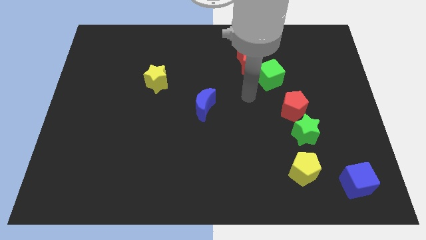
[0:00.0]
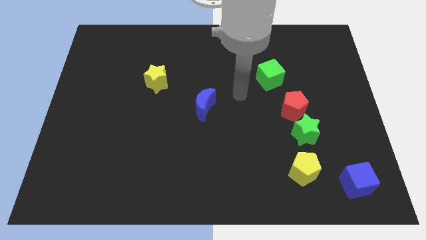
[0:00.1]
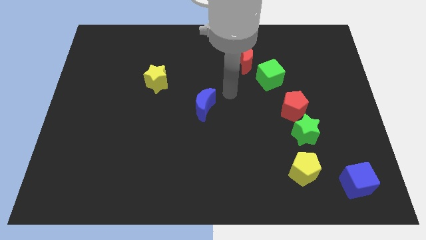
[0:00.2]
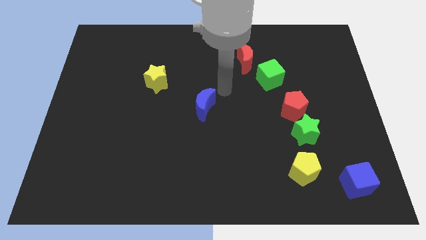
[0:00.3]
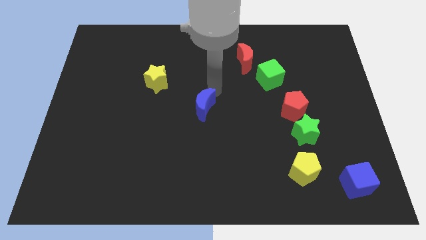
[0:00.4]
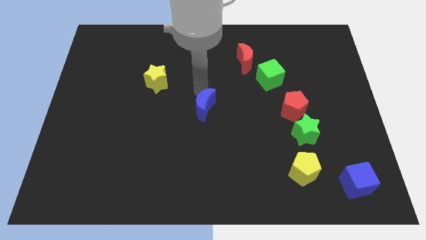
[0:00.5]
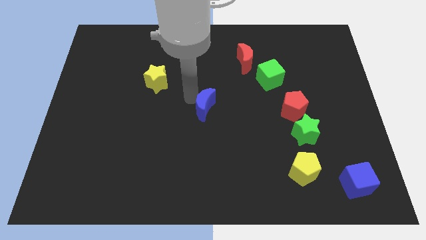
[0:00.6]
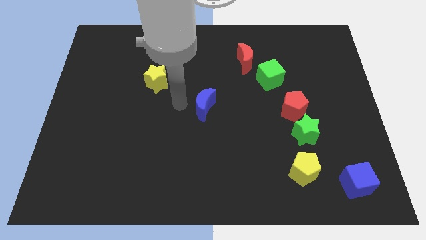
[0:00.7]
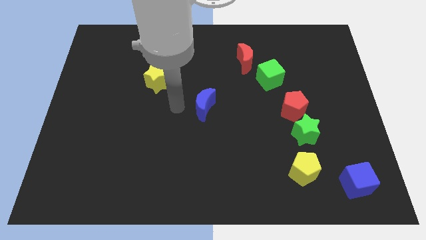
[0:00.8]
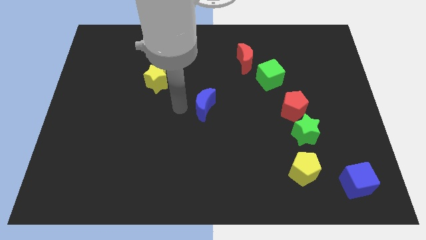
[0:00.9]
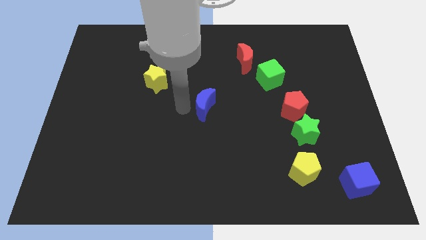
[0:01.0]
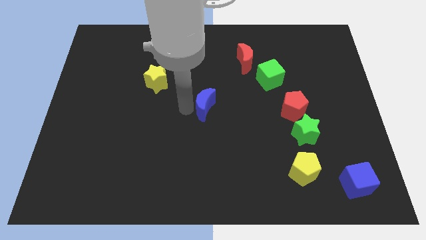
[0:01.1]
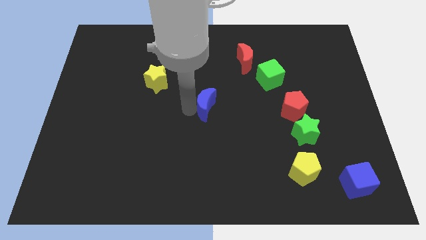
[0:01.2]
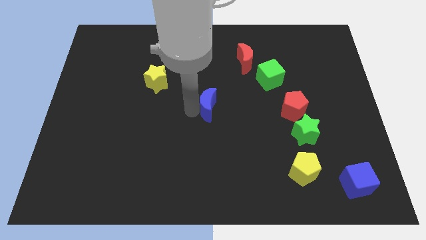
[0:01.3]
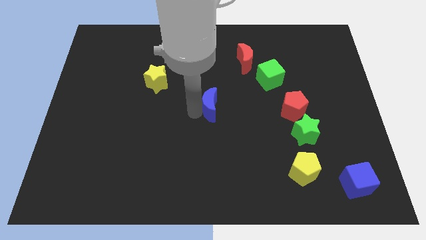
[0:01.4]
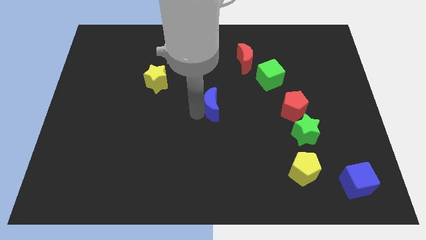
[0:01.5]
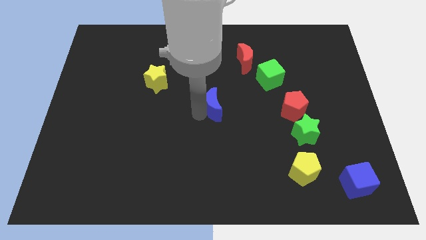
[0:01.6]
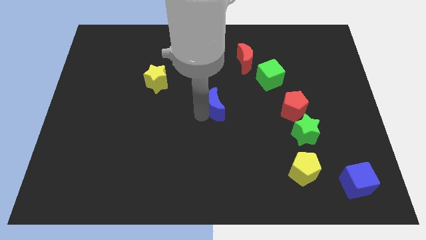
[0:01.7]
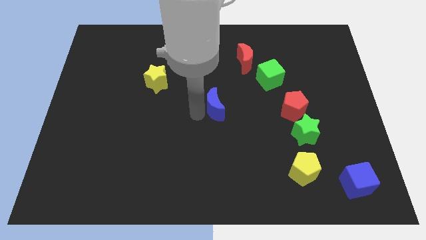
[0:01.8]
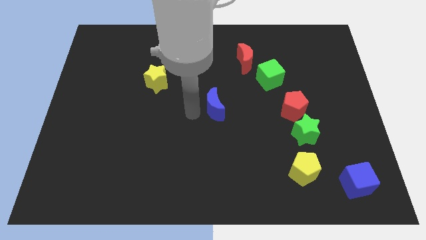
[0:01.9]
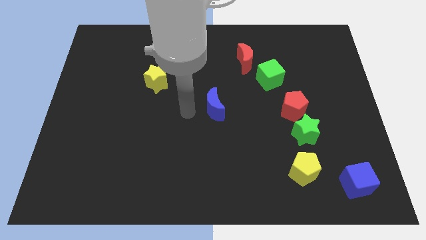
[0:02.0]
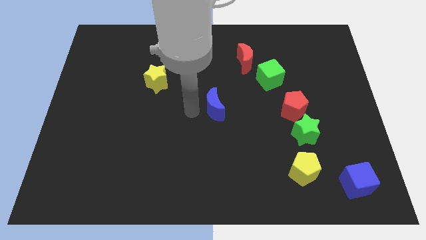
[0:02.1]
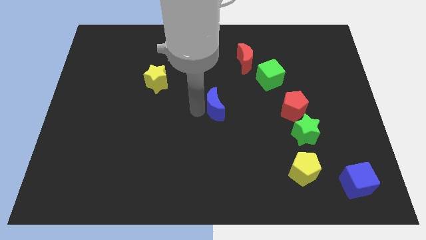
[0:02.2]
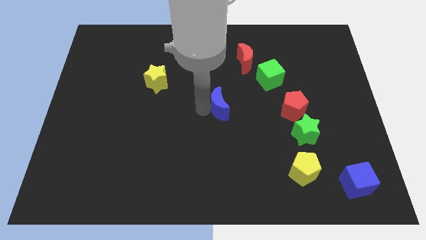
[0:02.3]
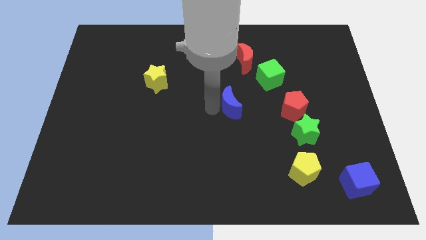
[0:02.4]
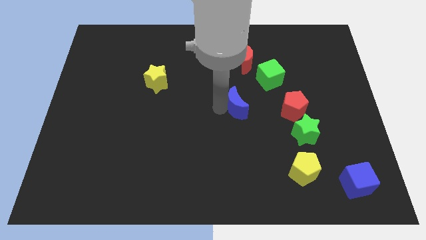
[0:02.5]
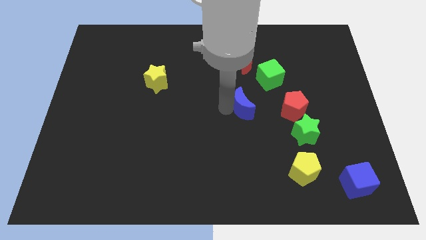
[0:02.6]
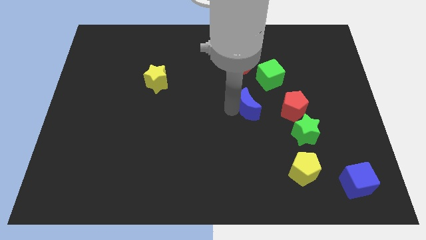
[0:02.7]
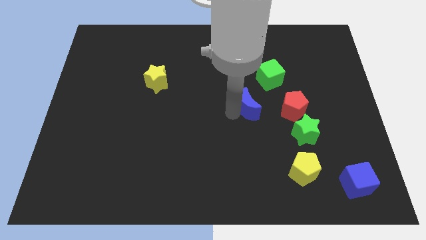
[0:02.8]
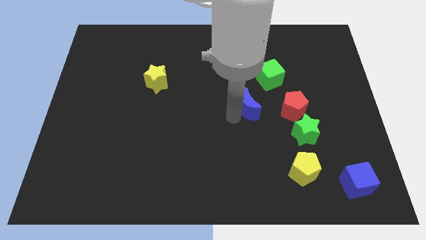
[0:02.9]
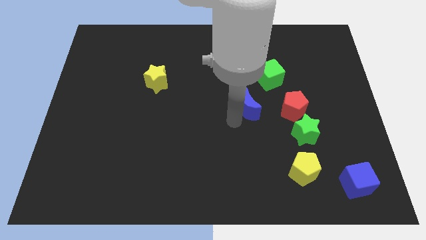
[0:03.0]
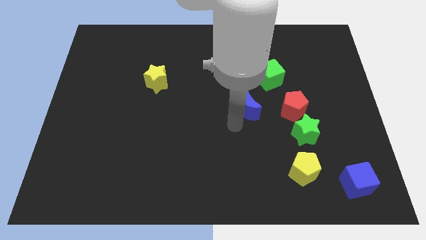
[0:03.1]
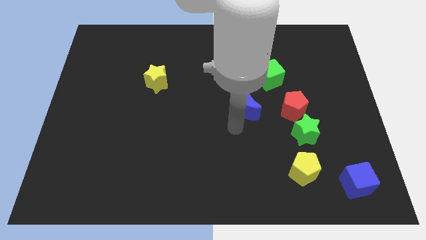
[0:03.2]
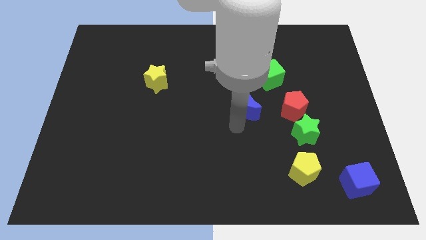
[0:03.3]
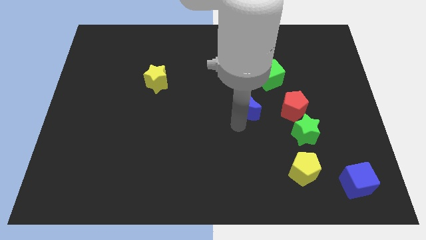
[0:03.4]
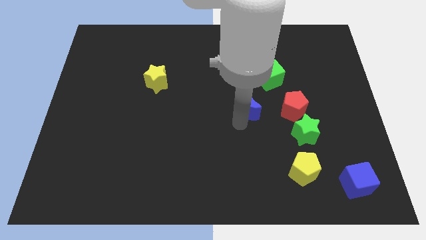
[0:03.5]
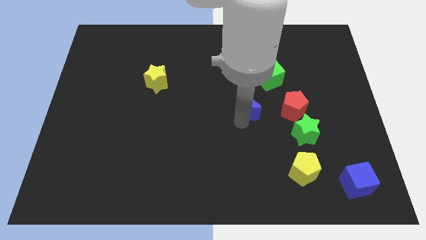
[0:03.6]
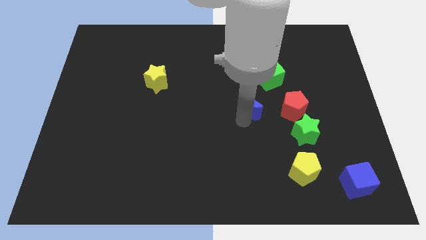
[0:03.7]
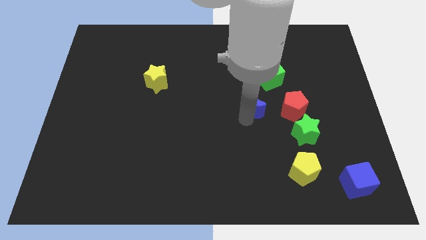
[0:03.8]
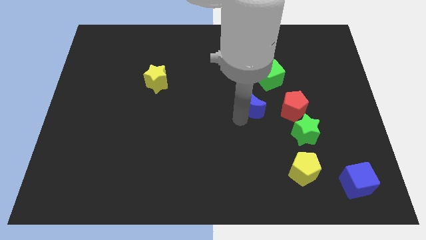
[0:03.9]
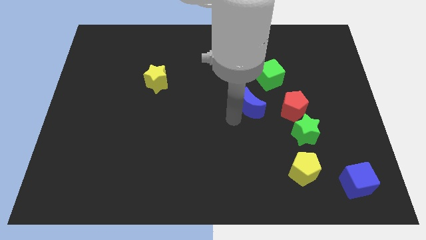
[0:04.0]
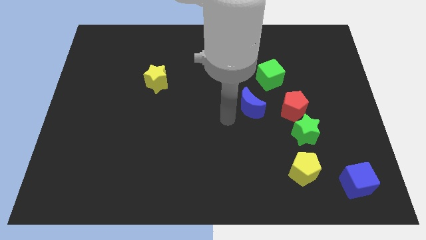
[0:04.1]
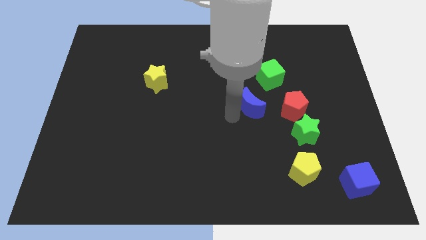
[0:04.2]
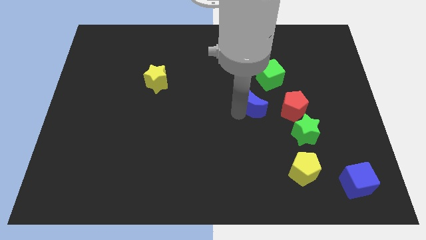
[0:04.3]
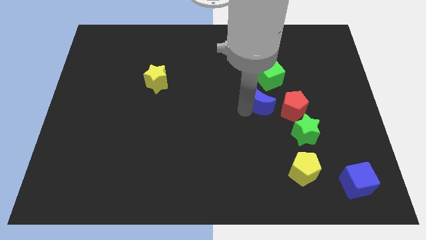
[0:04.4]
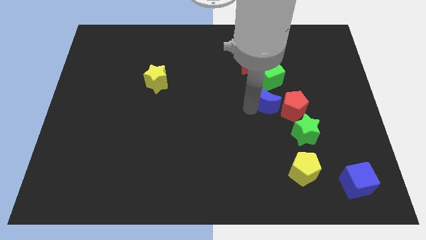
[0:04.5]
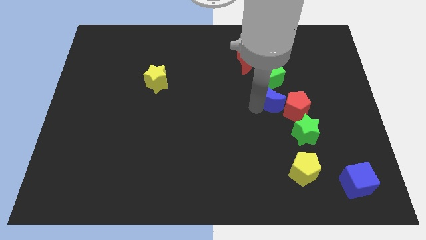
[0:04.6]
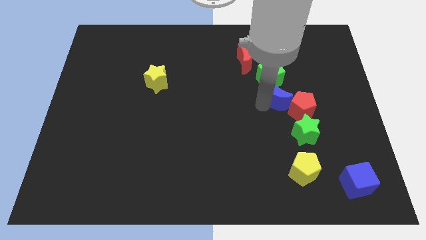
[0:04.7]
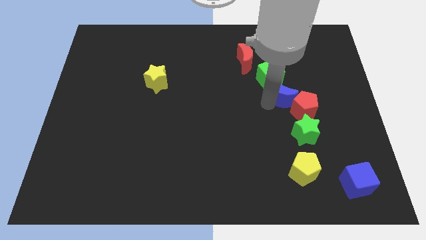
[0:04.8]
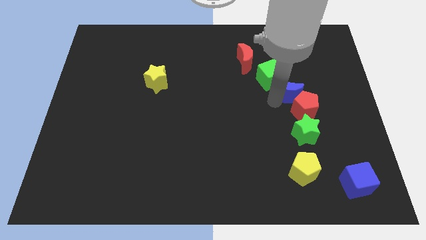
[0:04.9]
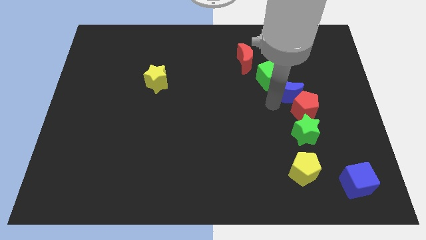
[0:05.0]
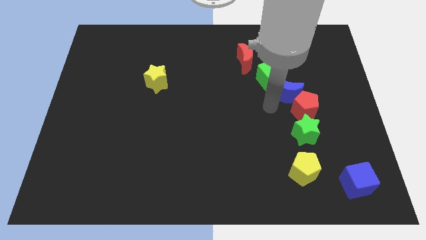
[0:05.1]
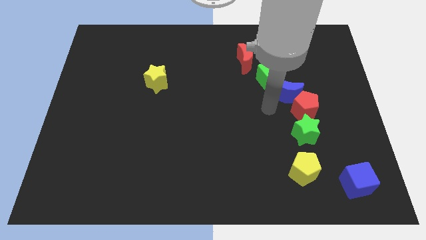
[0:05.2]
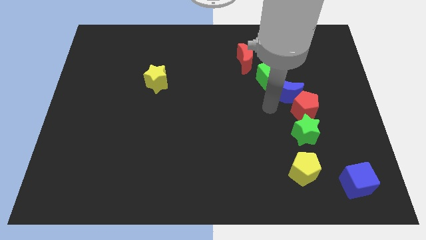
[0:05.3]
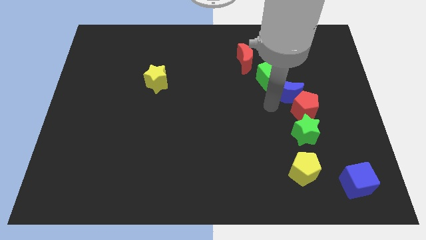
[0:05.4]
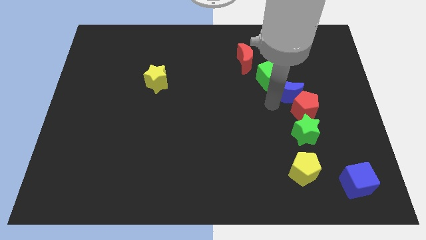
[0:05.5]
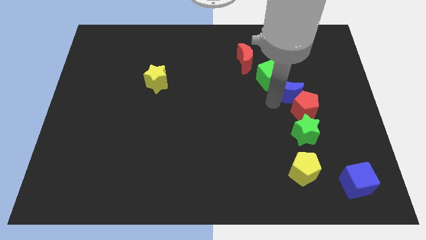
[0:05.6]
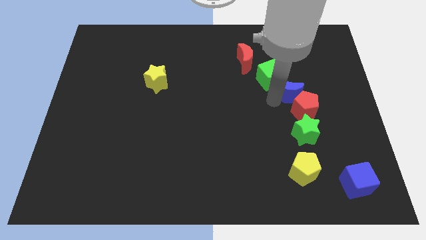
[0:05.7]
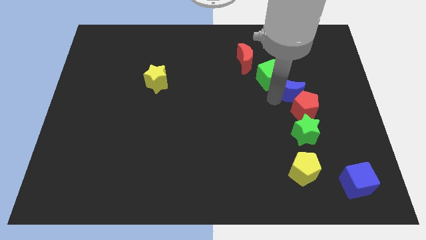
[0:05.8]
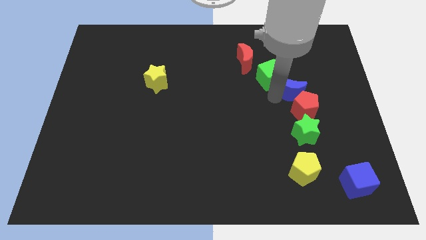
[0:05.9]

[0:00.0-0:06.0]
move the blue moon to the right of the green cube
